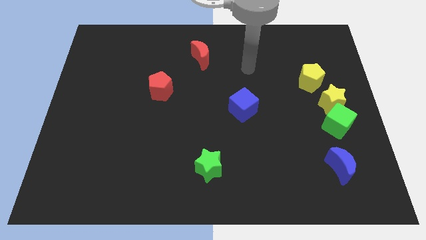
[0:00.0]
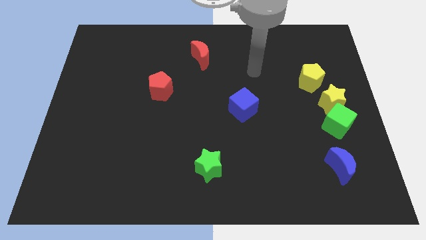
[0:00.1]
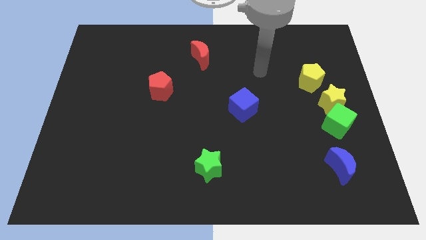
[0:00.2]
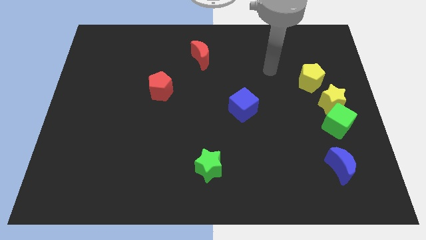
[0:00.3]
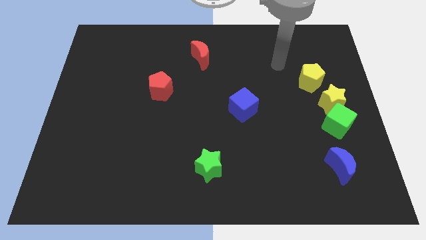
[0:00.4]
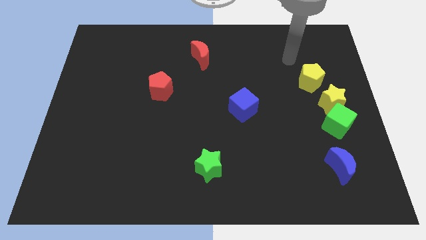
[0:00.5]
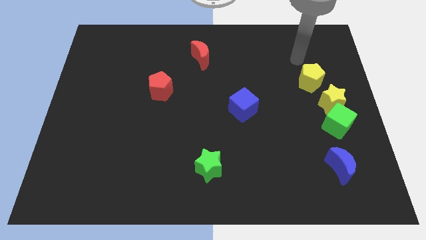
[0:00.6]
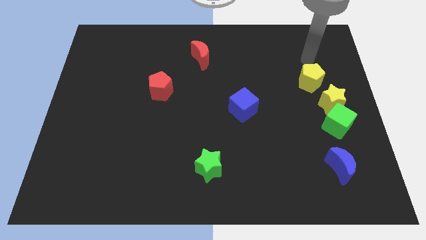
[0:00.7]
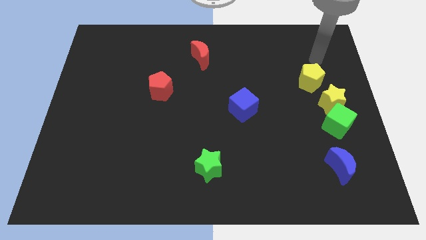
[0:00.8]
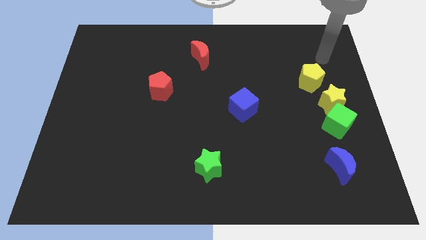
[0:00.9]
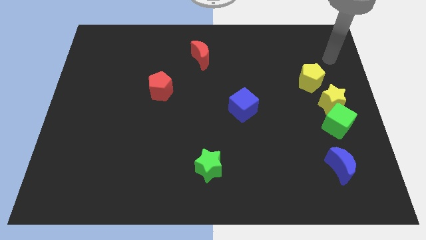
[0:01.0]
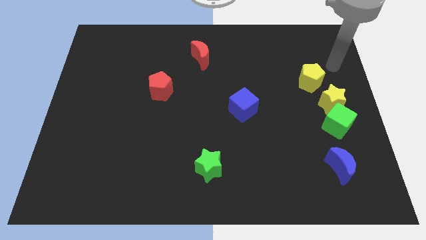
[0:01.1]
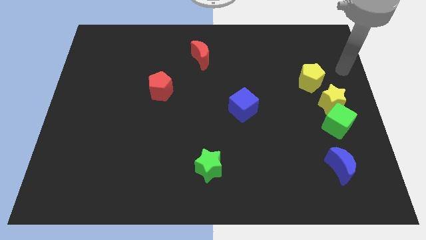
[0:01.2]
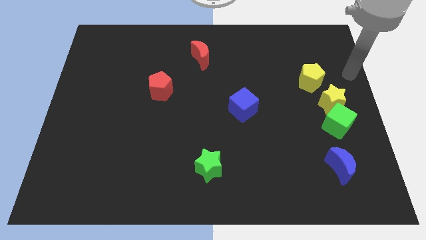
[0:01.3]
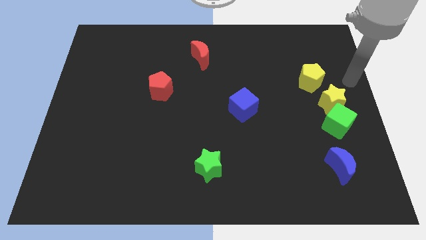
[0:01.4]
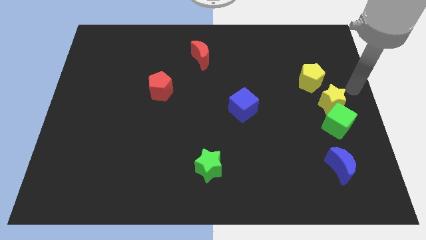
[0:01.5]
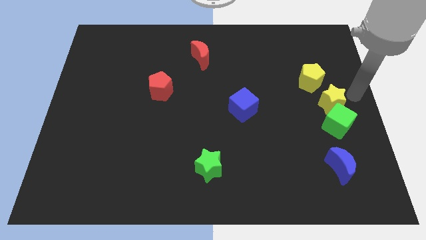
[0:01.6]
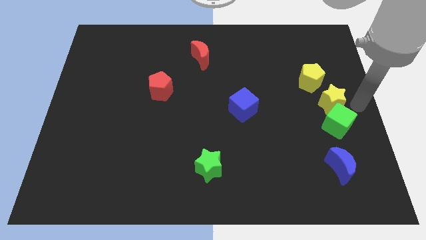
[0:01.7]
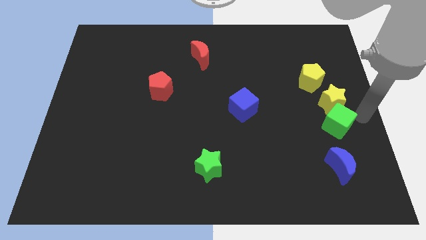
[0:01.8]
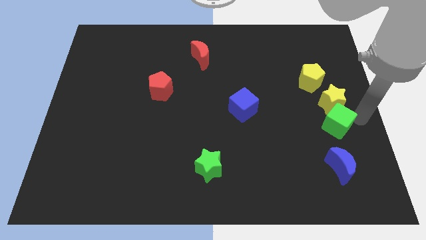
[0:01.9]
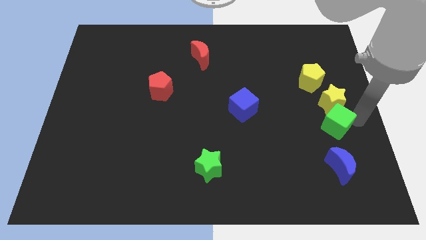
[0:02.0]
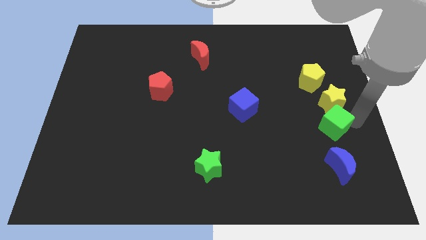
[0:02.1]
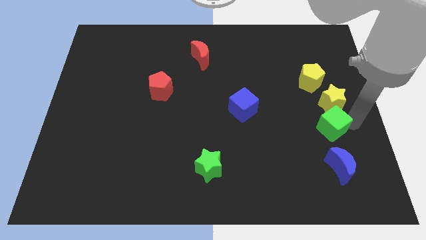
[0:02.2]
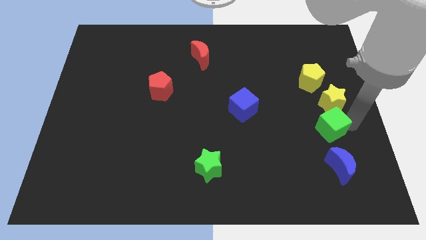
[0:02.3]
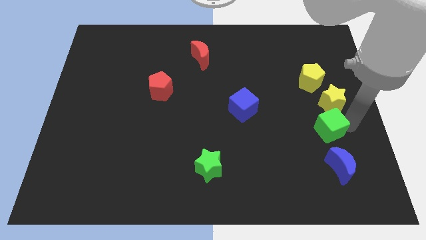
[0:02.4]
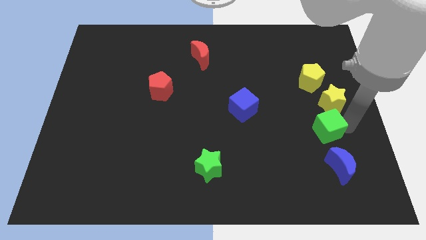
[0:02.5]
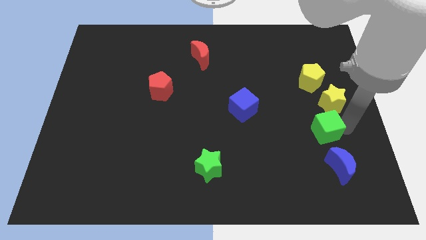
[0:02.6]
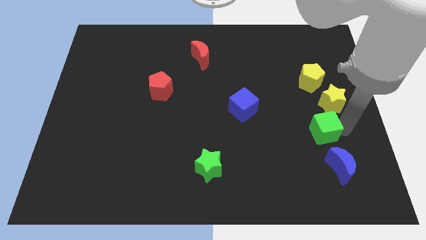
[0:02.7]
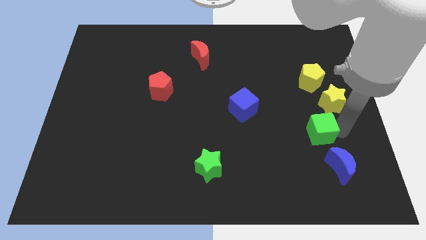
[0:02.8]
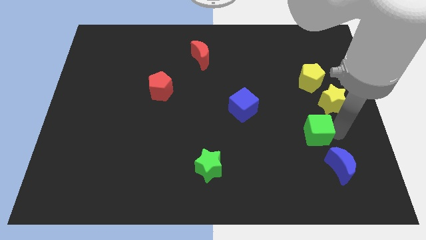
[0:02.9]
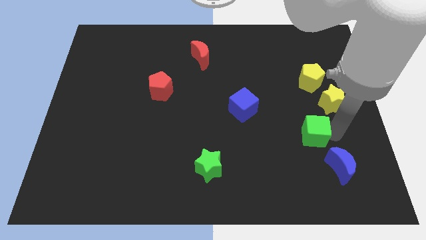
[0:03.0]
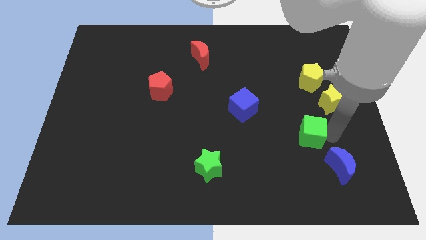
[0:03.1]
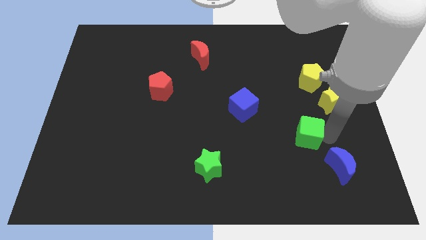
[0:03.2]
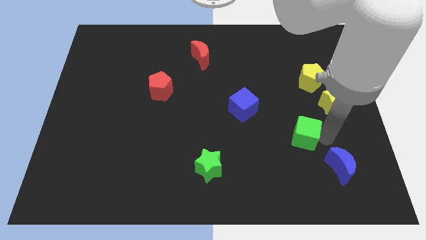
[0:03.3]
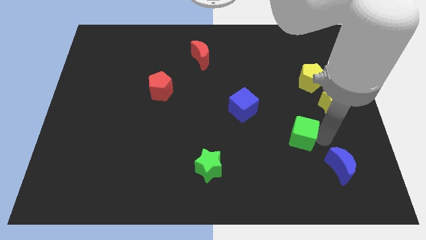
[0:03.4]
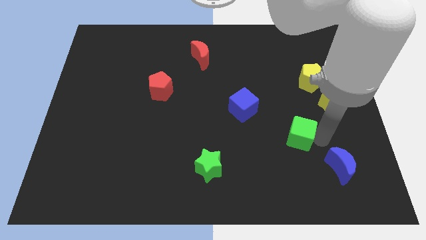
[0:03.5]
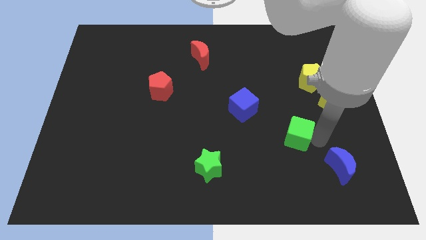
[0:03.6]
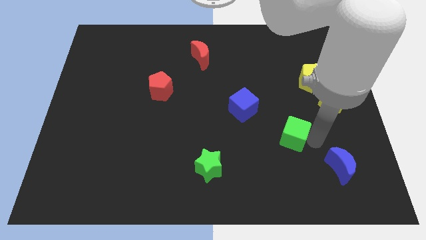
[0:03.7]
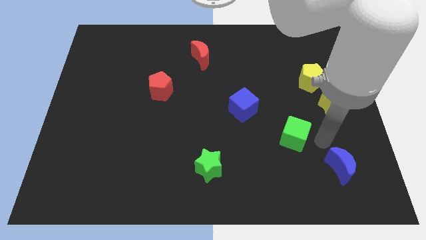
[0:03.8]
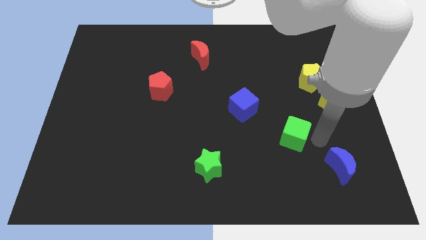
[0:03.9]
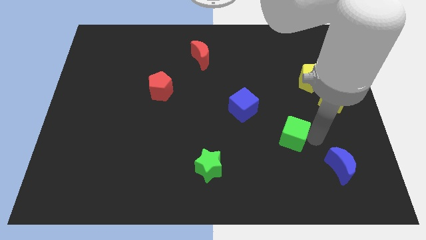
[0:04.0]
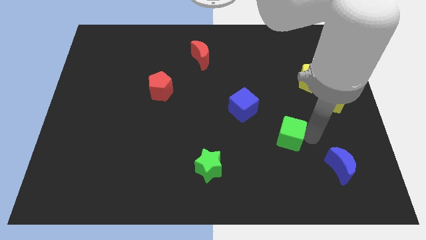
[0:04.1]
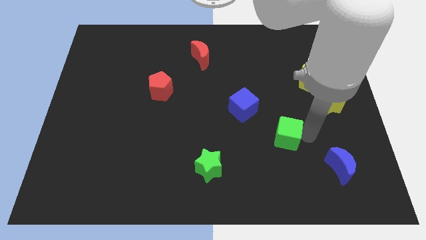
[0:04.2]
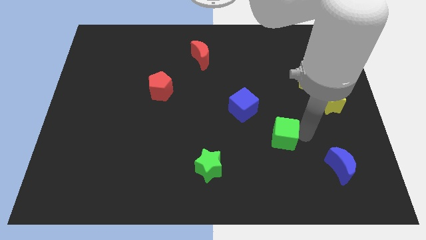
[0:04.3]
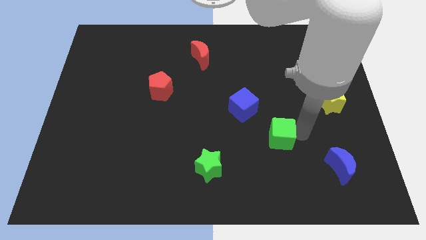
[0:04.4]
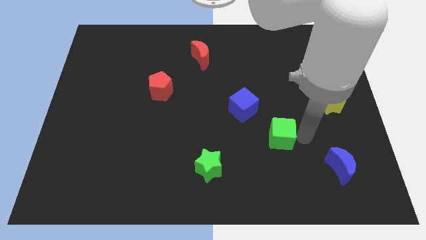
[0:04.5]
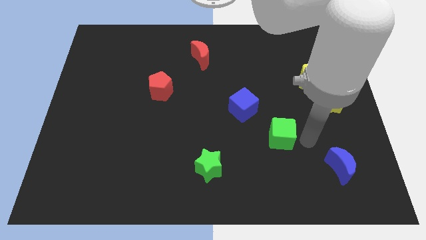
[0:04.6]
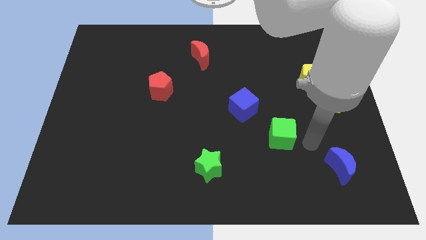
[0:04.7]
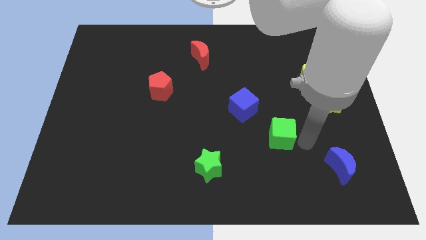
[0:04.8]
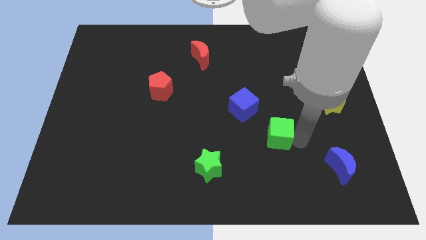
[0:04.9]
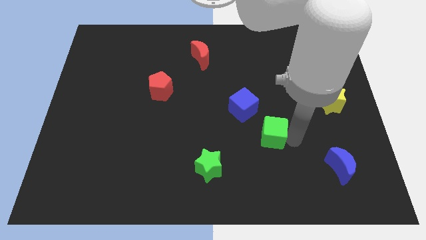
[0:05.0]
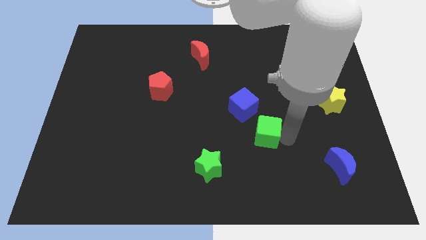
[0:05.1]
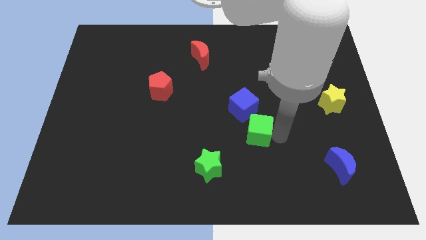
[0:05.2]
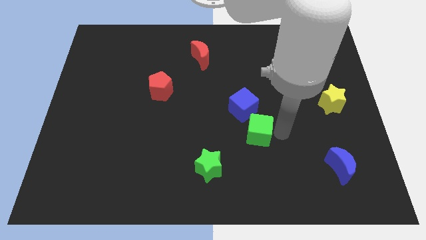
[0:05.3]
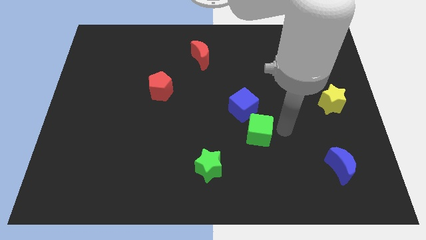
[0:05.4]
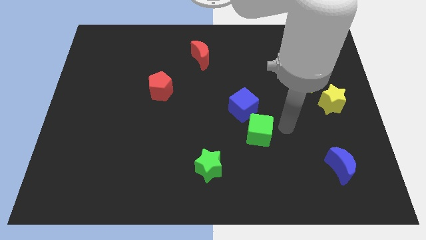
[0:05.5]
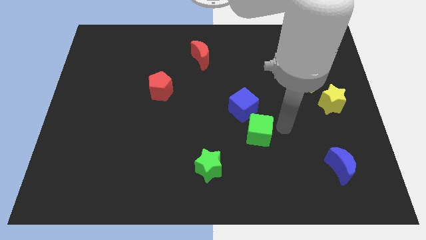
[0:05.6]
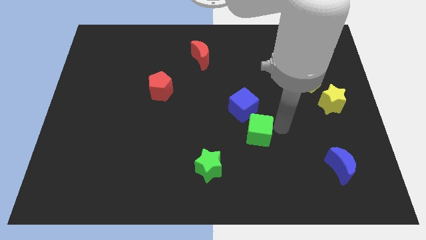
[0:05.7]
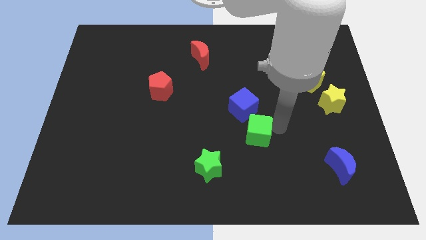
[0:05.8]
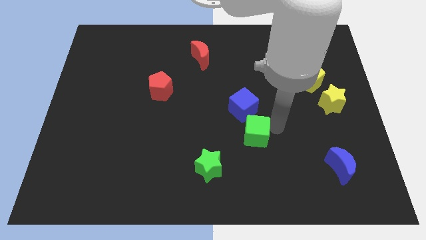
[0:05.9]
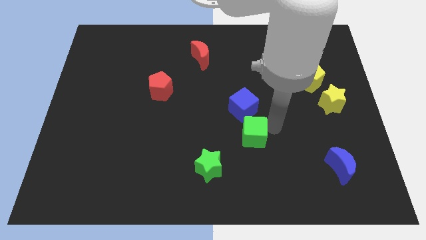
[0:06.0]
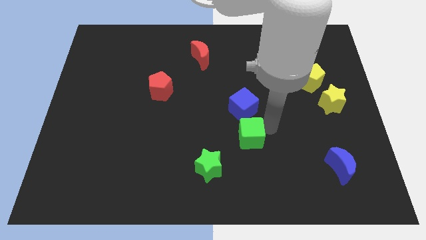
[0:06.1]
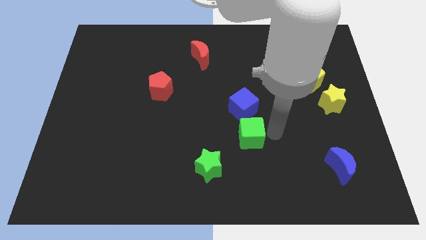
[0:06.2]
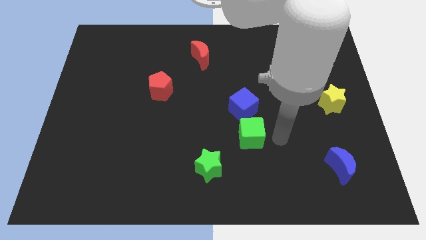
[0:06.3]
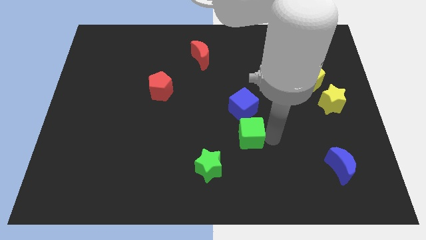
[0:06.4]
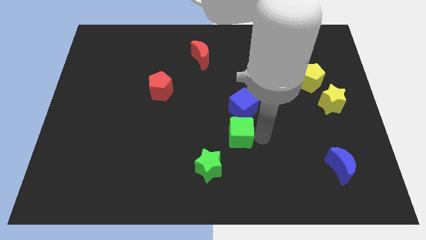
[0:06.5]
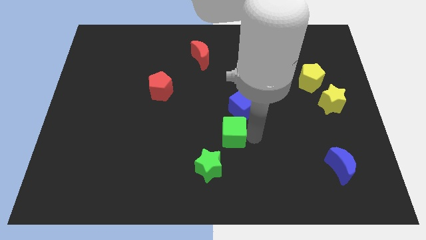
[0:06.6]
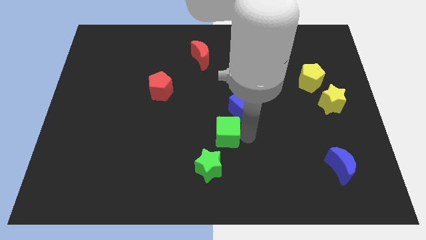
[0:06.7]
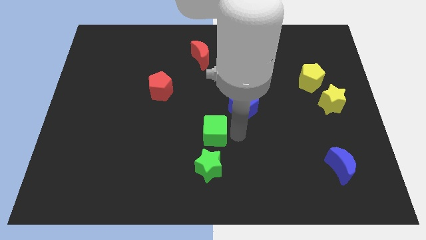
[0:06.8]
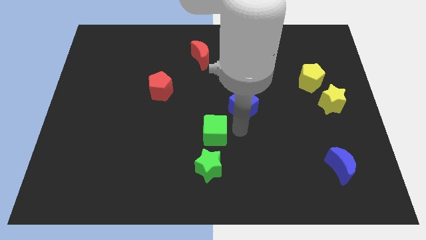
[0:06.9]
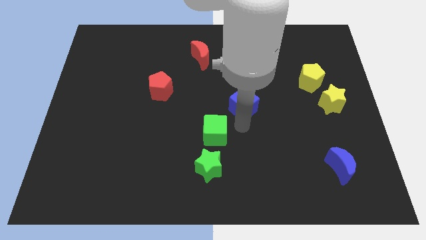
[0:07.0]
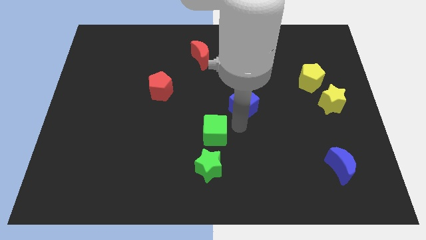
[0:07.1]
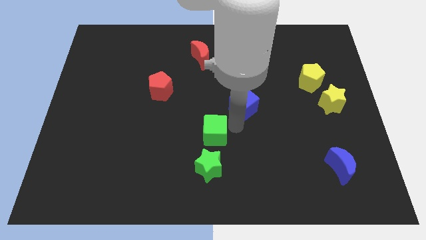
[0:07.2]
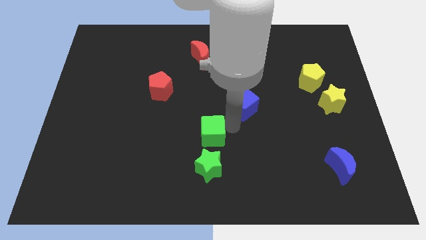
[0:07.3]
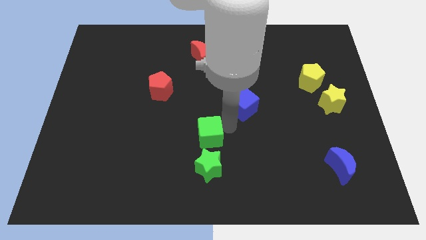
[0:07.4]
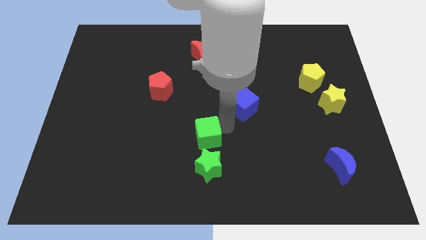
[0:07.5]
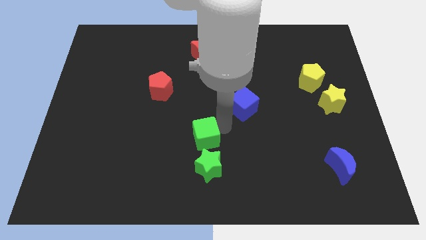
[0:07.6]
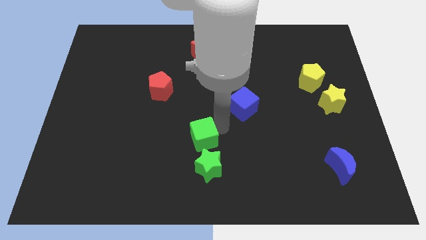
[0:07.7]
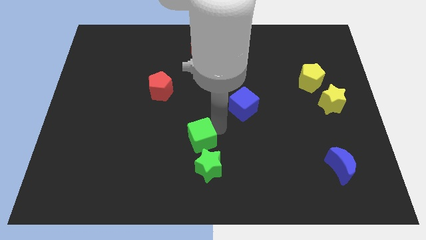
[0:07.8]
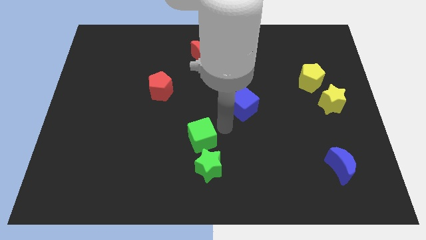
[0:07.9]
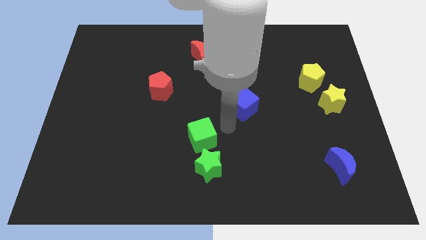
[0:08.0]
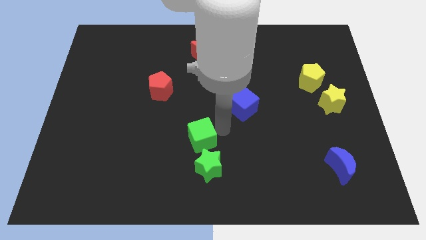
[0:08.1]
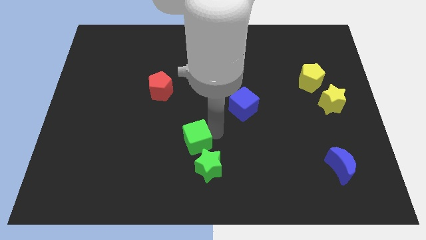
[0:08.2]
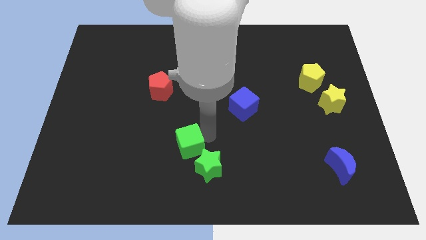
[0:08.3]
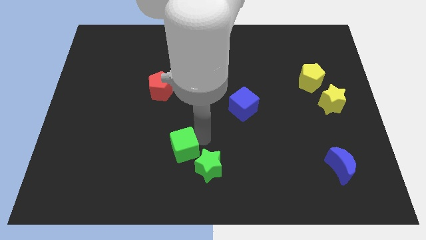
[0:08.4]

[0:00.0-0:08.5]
slide the green cube just left of the green star
